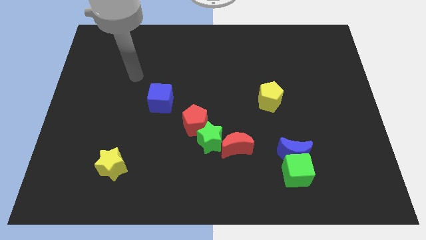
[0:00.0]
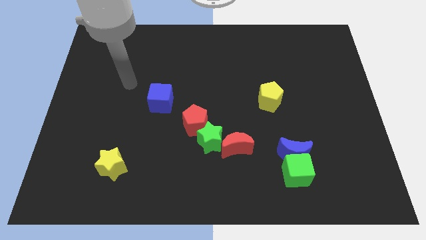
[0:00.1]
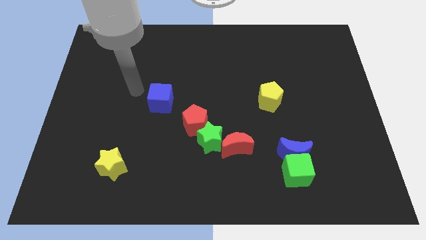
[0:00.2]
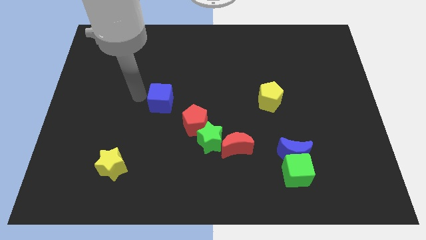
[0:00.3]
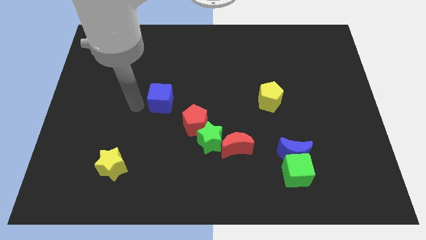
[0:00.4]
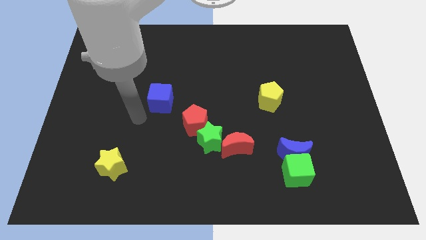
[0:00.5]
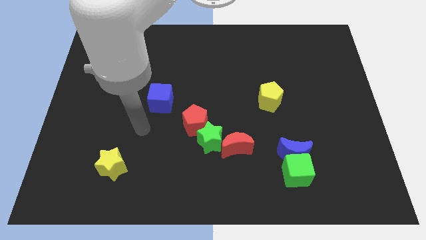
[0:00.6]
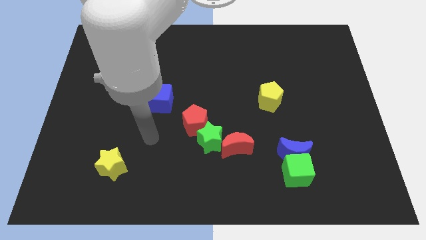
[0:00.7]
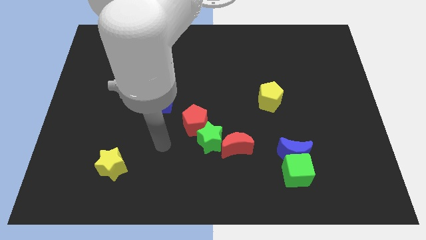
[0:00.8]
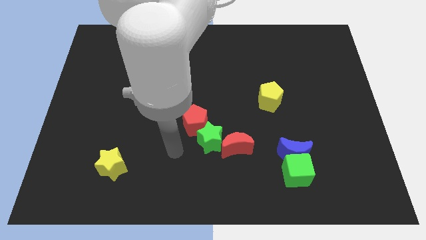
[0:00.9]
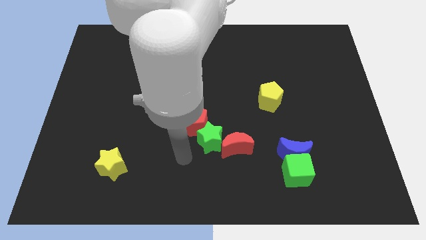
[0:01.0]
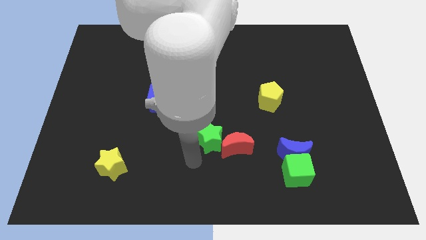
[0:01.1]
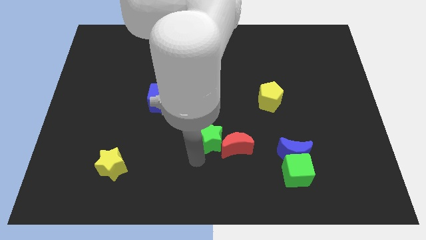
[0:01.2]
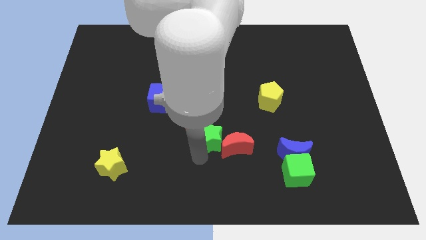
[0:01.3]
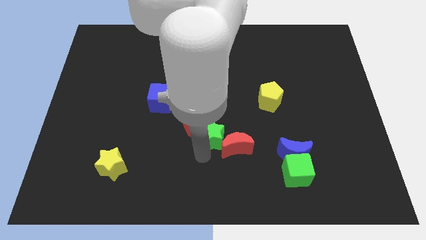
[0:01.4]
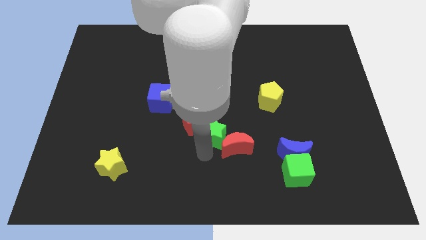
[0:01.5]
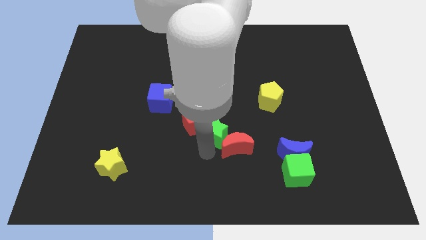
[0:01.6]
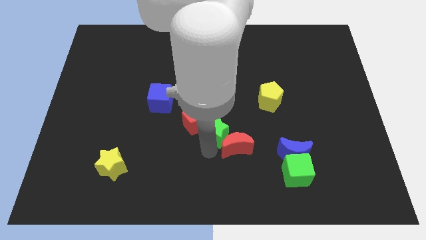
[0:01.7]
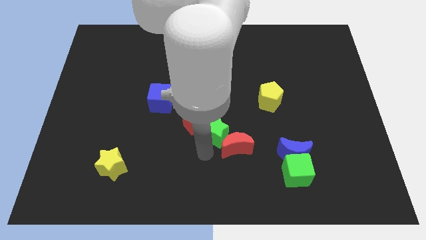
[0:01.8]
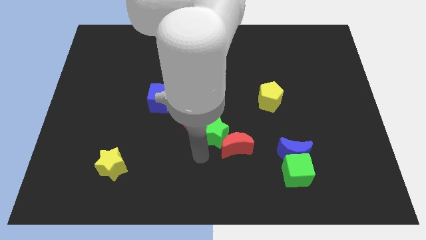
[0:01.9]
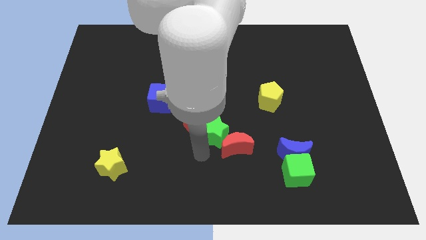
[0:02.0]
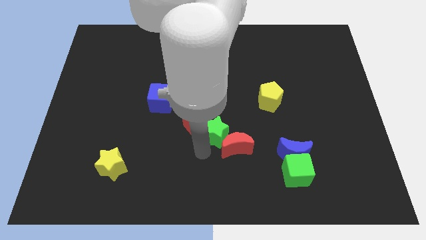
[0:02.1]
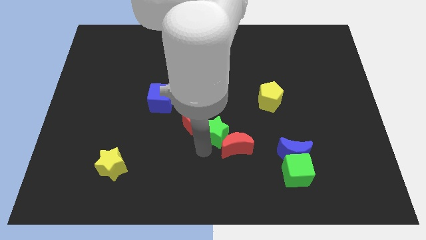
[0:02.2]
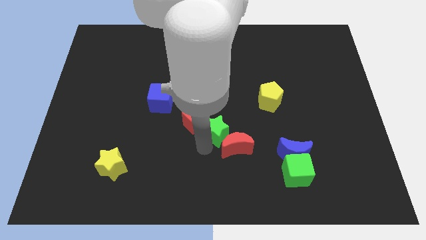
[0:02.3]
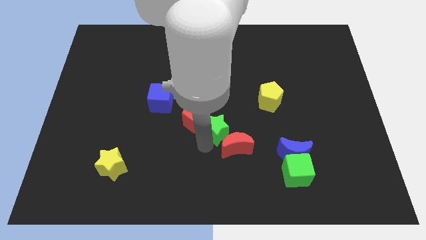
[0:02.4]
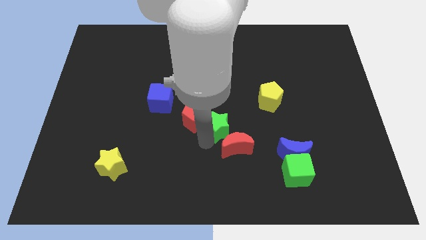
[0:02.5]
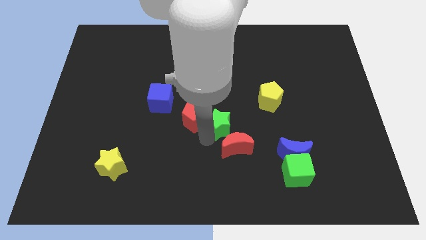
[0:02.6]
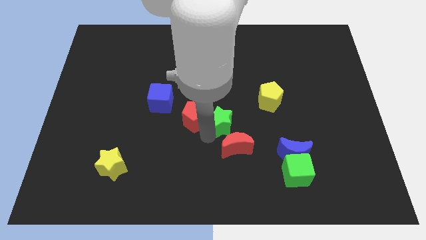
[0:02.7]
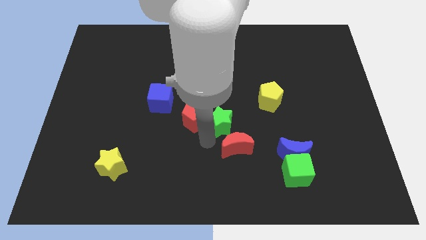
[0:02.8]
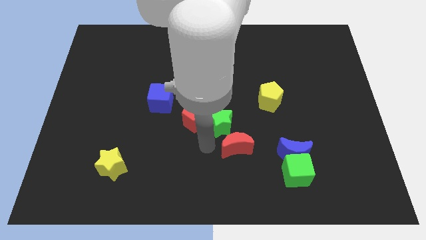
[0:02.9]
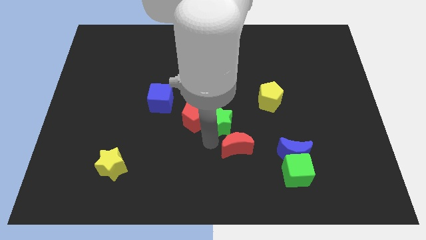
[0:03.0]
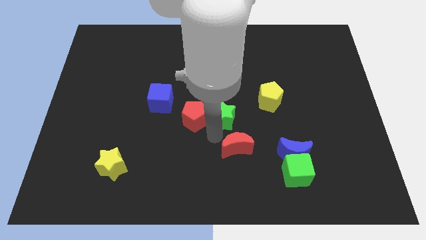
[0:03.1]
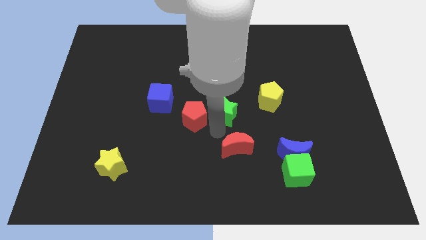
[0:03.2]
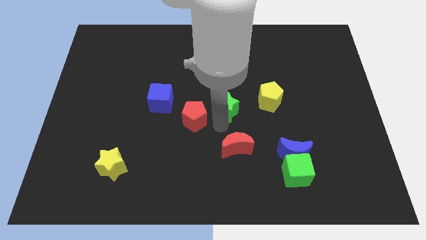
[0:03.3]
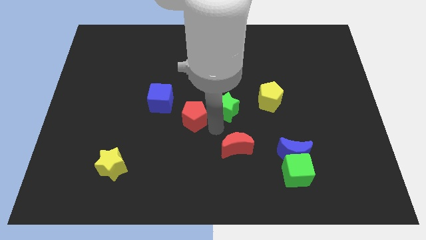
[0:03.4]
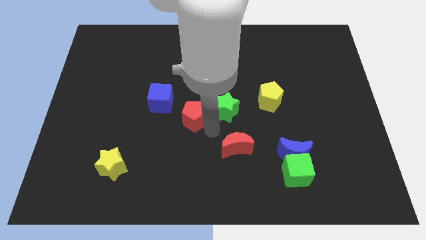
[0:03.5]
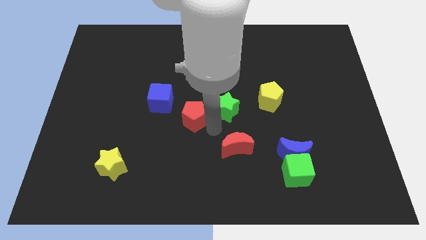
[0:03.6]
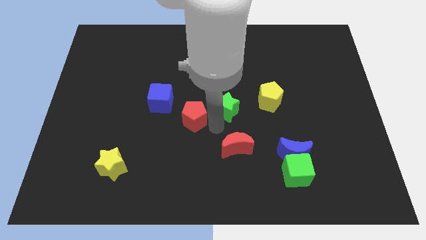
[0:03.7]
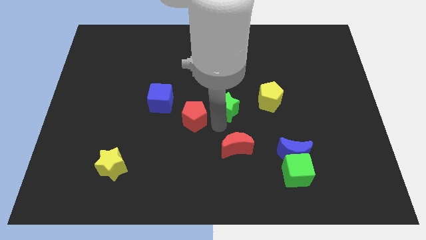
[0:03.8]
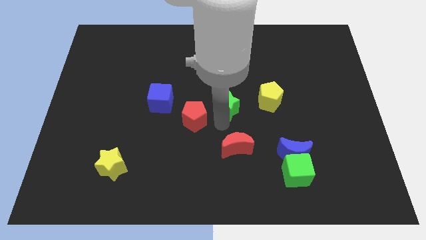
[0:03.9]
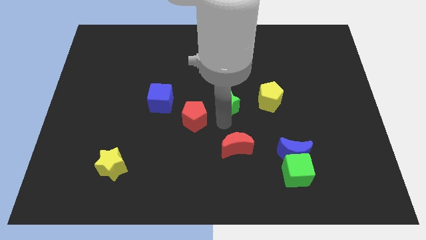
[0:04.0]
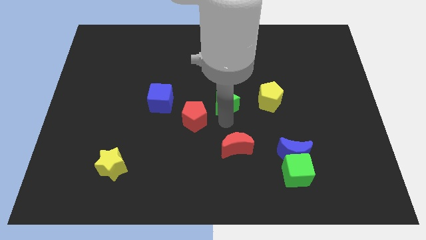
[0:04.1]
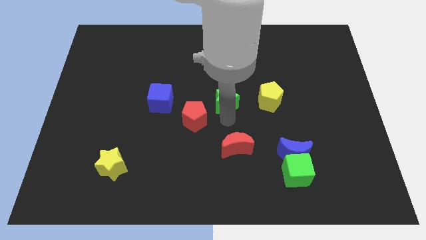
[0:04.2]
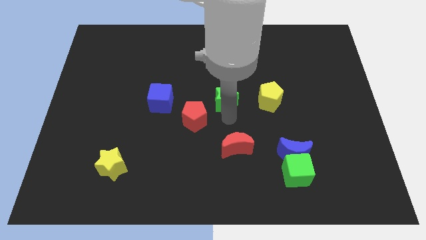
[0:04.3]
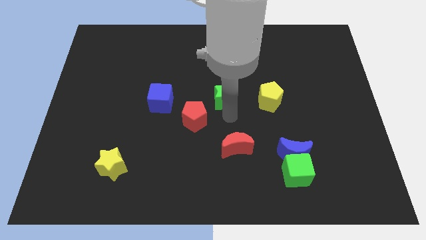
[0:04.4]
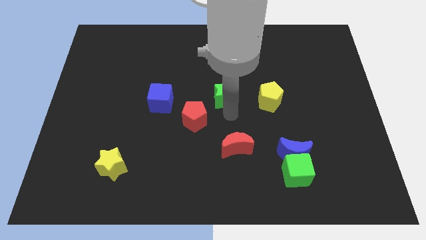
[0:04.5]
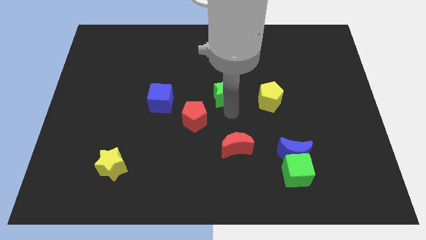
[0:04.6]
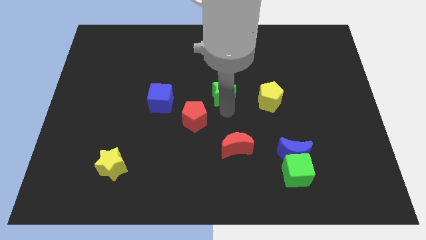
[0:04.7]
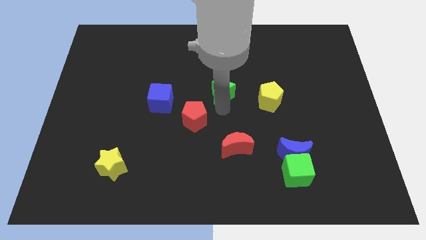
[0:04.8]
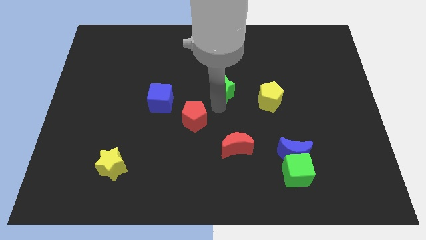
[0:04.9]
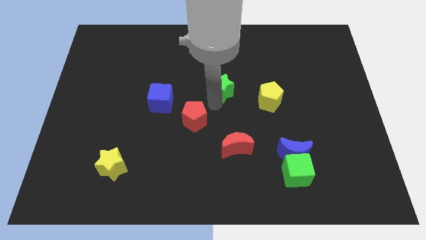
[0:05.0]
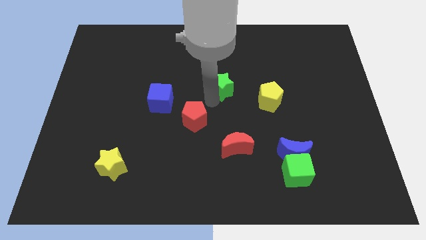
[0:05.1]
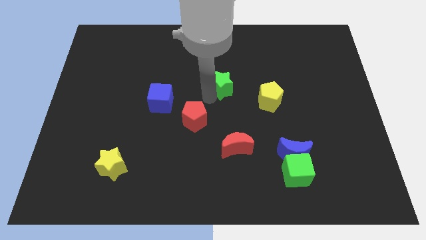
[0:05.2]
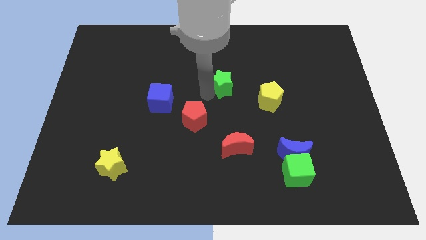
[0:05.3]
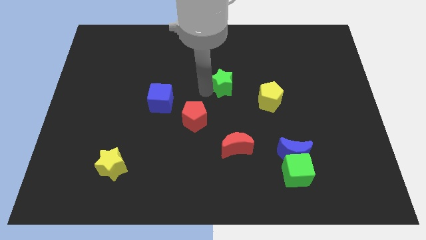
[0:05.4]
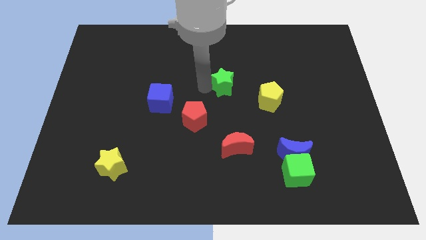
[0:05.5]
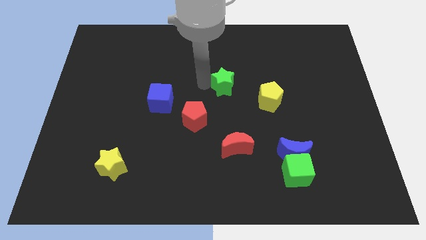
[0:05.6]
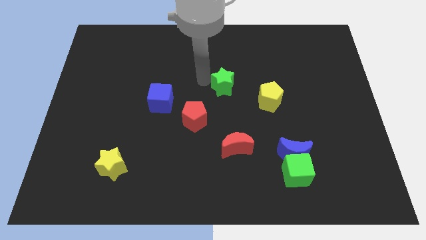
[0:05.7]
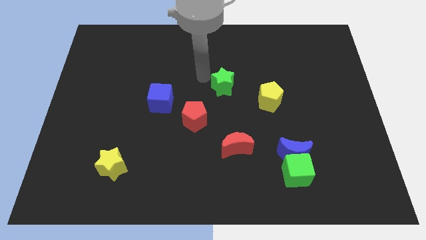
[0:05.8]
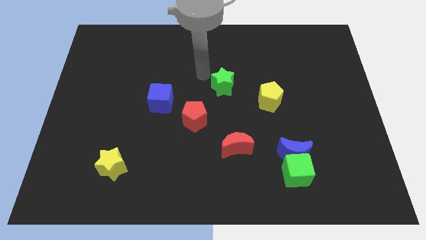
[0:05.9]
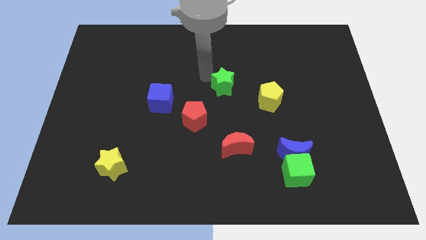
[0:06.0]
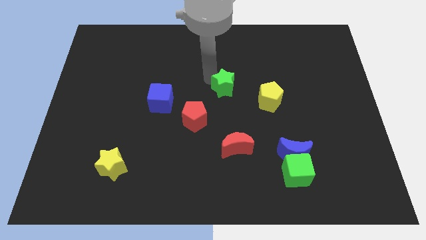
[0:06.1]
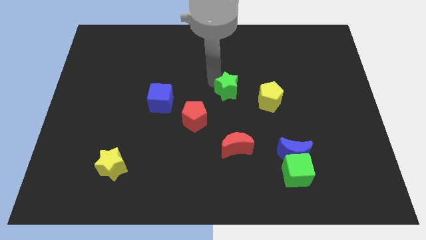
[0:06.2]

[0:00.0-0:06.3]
push the green star to the top left of the yellow pentagon

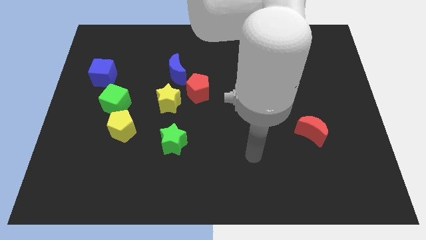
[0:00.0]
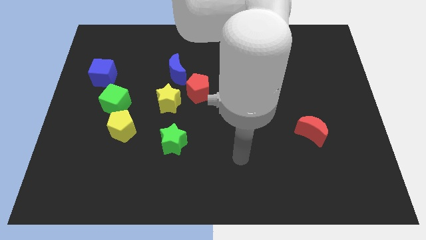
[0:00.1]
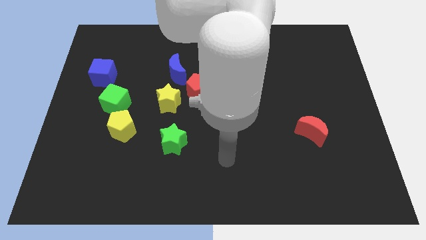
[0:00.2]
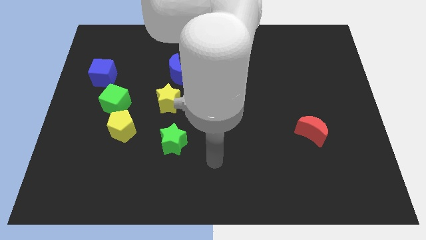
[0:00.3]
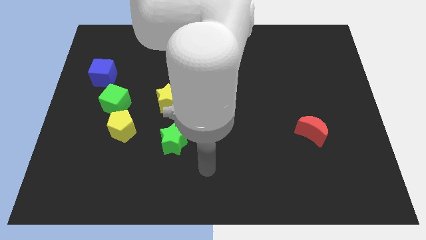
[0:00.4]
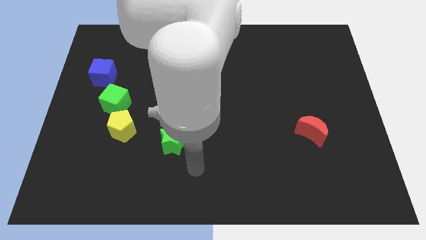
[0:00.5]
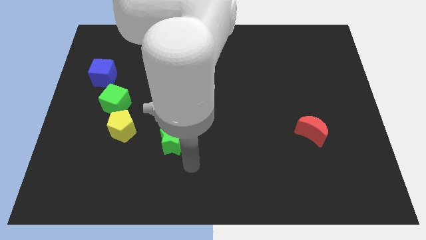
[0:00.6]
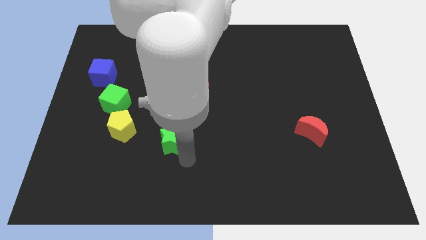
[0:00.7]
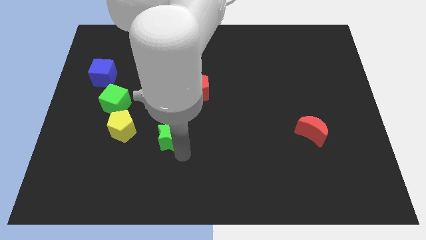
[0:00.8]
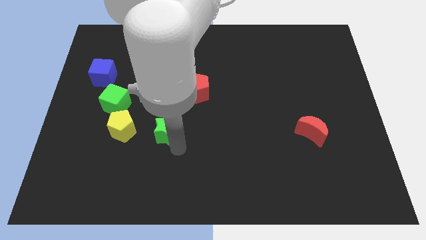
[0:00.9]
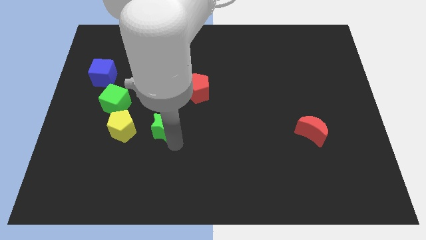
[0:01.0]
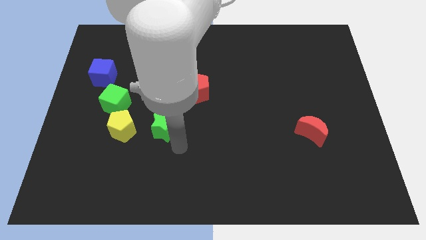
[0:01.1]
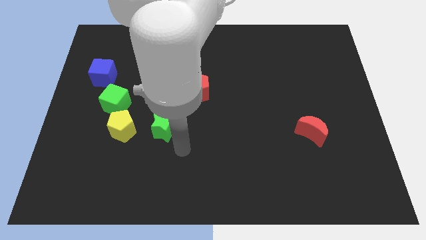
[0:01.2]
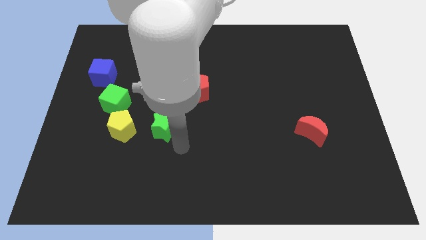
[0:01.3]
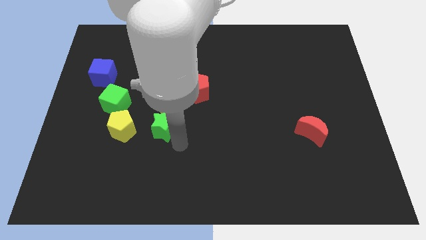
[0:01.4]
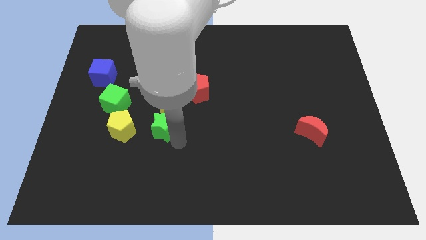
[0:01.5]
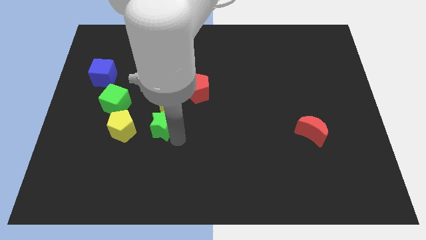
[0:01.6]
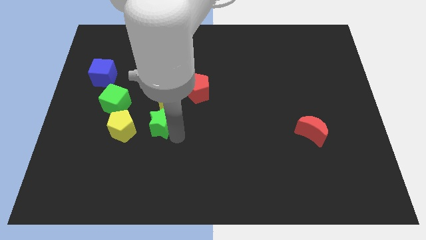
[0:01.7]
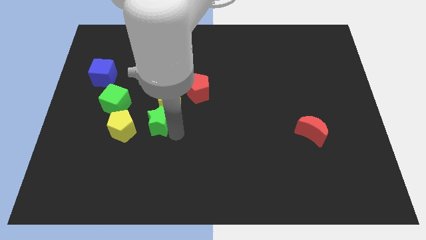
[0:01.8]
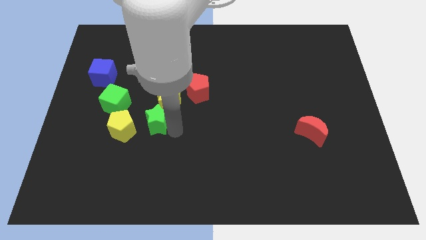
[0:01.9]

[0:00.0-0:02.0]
move the green star to the top right side of the yellow pentagon
